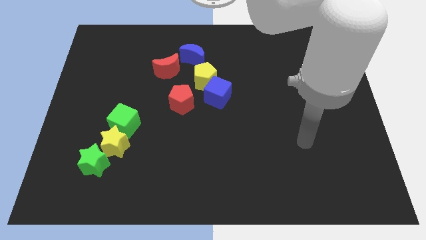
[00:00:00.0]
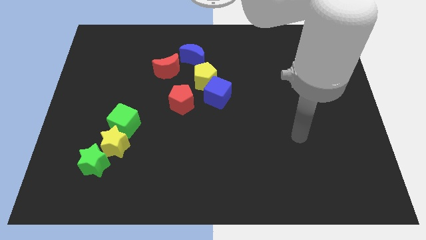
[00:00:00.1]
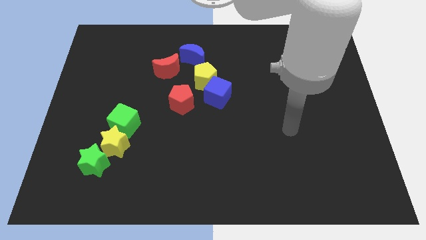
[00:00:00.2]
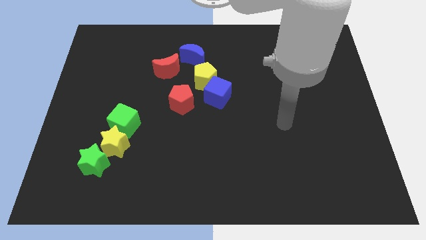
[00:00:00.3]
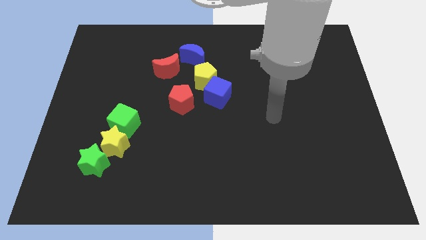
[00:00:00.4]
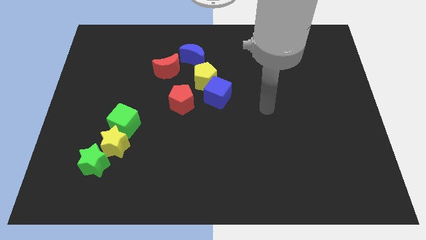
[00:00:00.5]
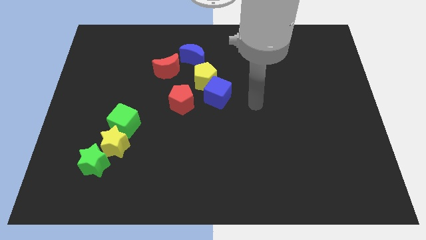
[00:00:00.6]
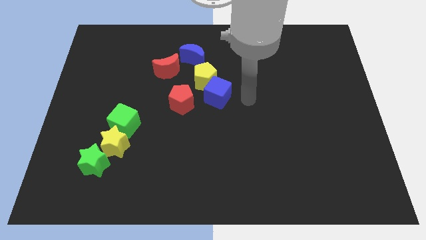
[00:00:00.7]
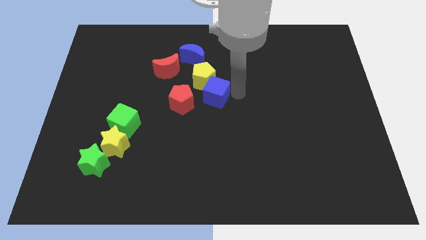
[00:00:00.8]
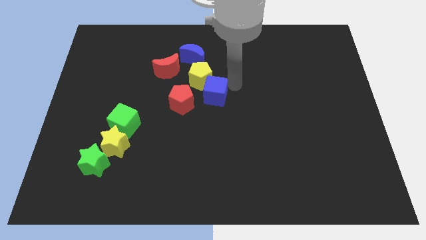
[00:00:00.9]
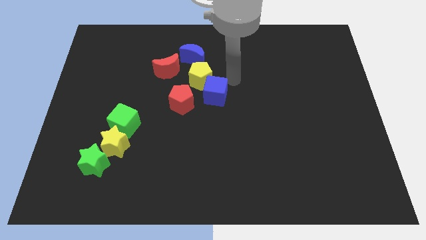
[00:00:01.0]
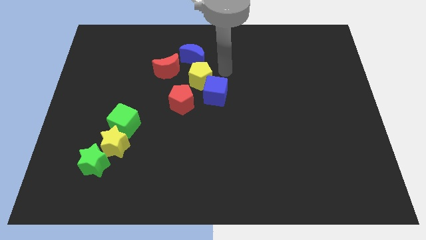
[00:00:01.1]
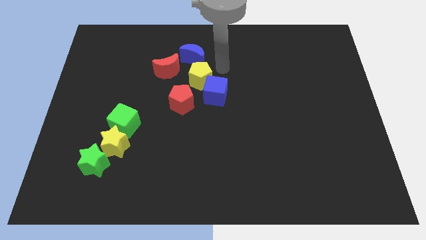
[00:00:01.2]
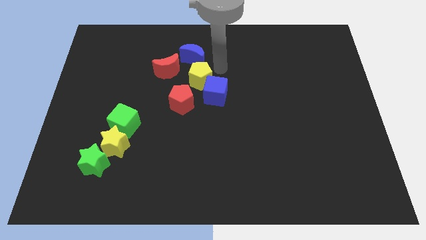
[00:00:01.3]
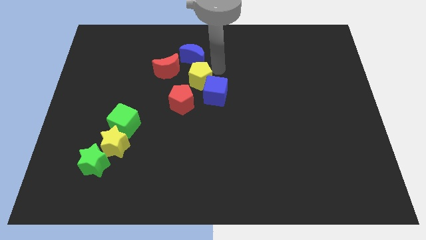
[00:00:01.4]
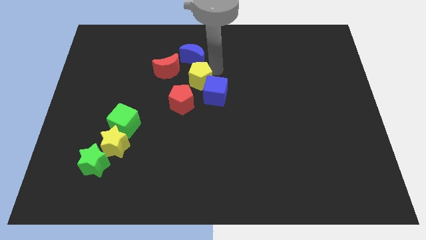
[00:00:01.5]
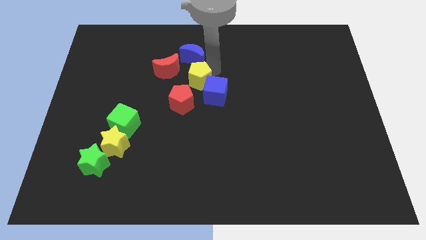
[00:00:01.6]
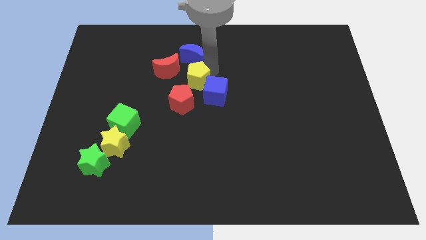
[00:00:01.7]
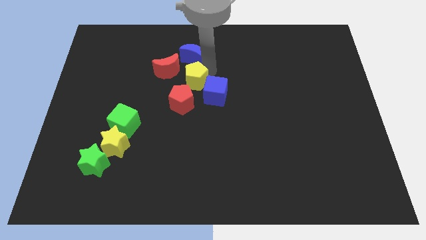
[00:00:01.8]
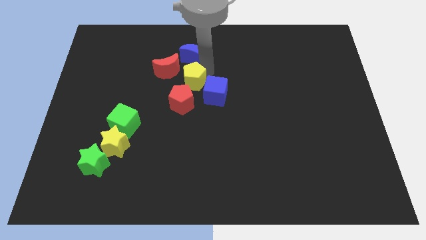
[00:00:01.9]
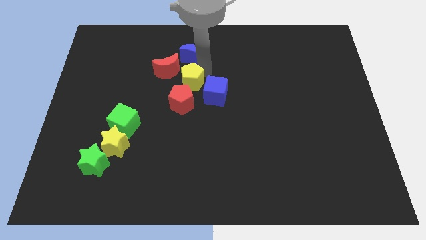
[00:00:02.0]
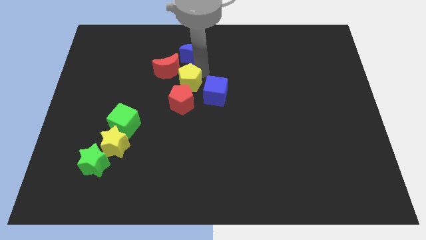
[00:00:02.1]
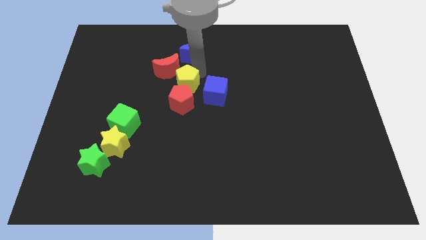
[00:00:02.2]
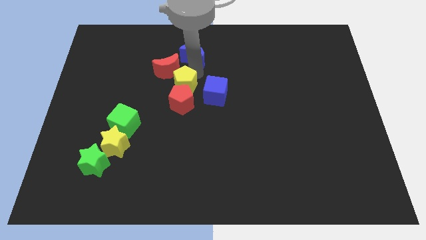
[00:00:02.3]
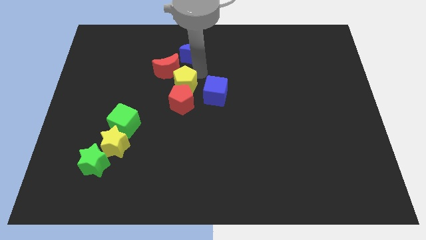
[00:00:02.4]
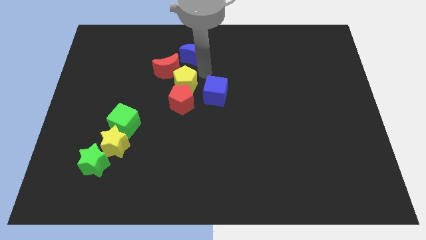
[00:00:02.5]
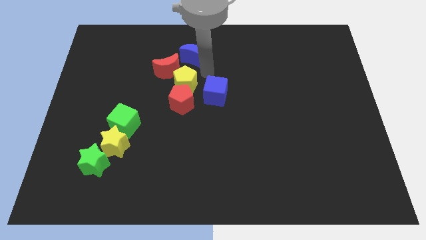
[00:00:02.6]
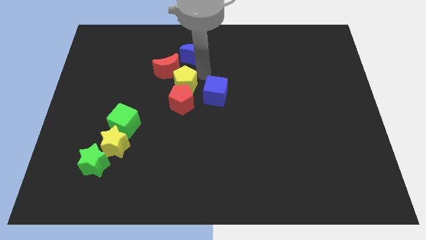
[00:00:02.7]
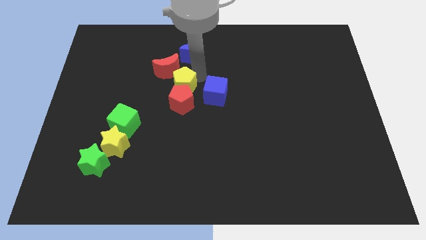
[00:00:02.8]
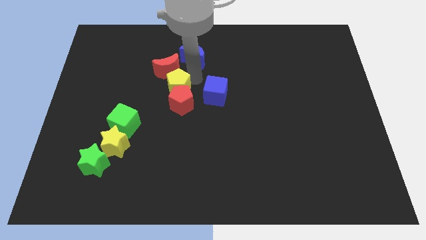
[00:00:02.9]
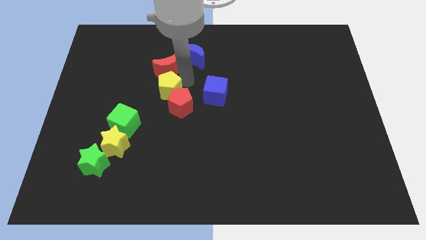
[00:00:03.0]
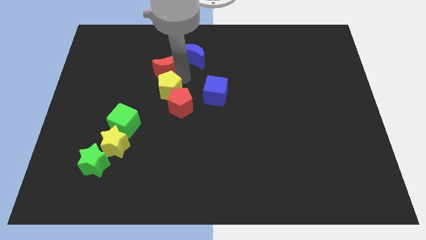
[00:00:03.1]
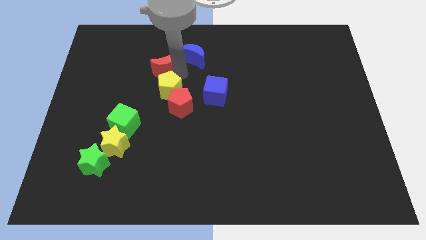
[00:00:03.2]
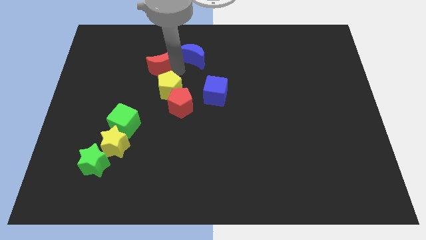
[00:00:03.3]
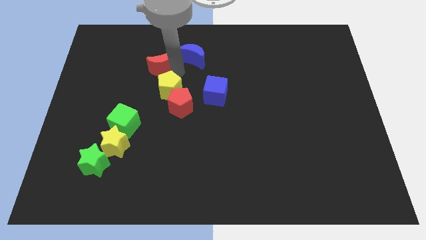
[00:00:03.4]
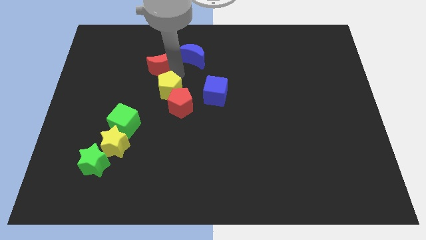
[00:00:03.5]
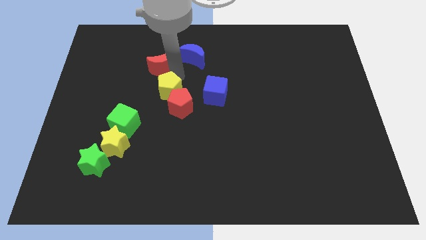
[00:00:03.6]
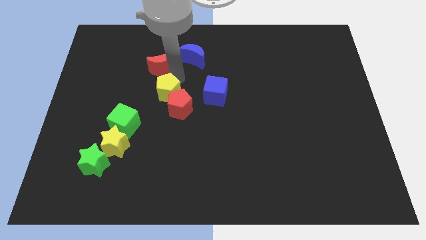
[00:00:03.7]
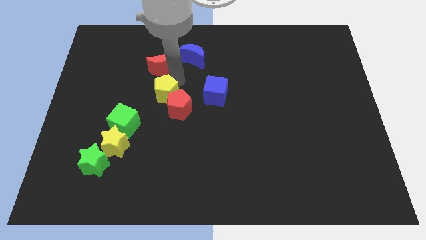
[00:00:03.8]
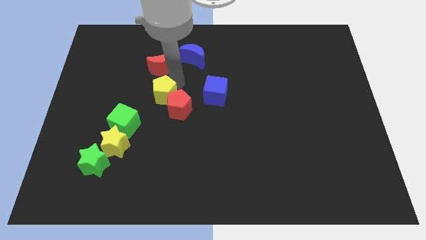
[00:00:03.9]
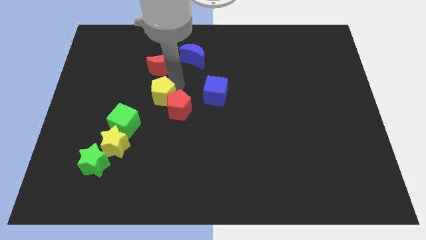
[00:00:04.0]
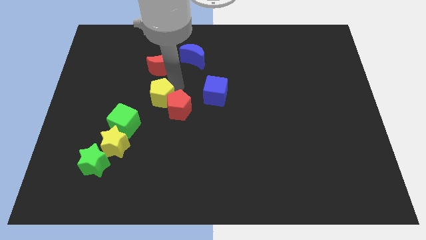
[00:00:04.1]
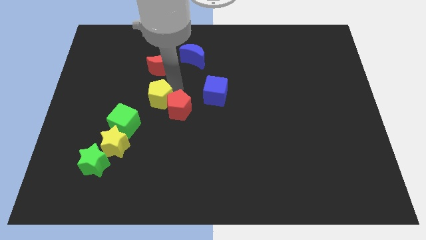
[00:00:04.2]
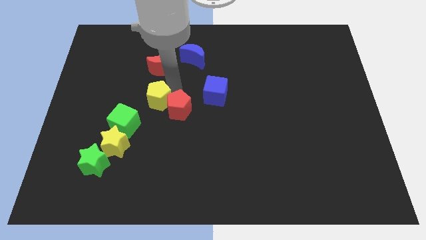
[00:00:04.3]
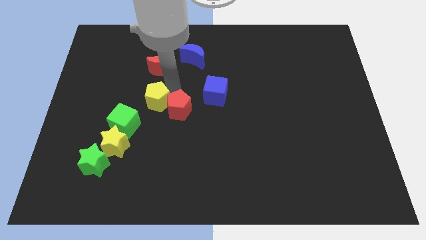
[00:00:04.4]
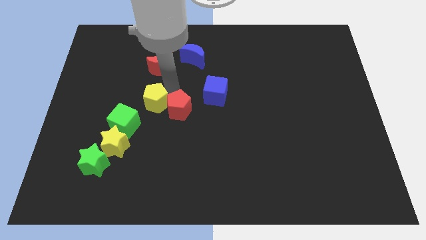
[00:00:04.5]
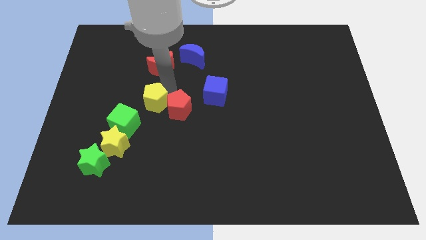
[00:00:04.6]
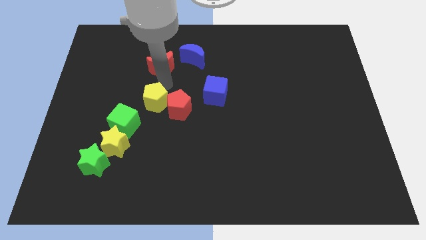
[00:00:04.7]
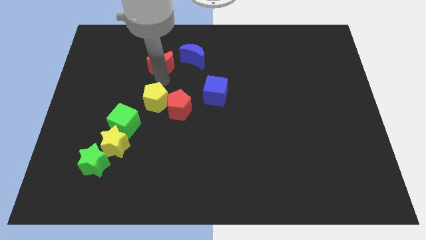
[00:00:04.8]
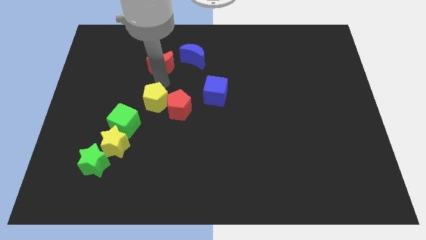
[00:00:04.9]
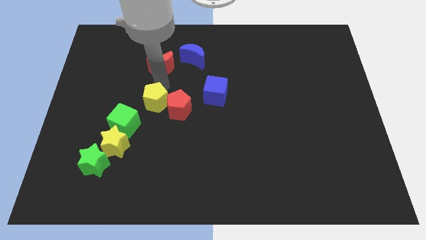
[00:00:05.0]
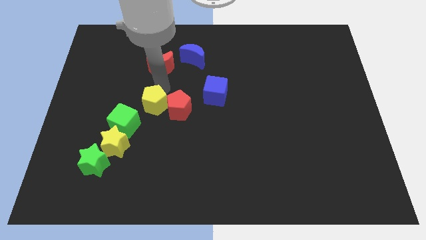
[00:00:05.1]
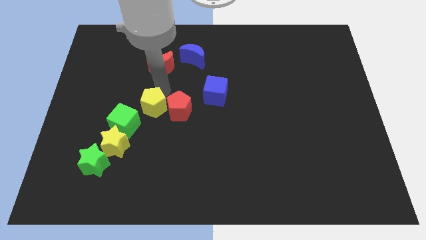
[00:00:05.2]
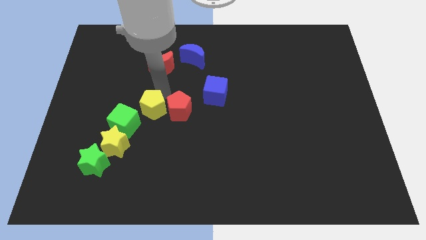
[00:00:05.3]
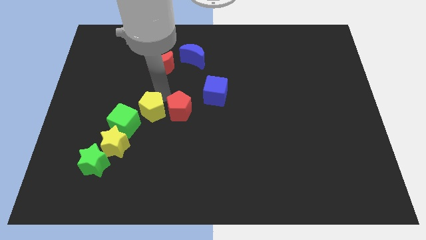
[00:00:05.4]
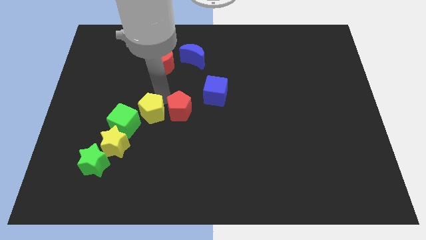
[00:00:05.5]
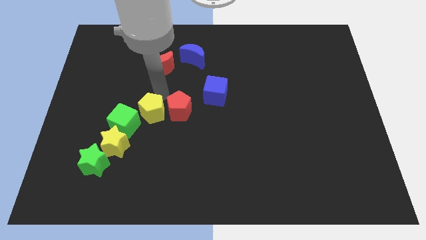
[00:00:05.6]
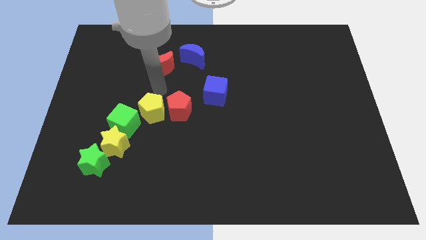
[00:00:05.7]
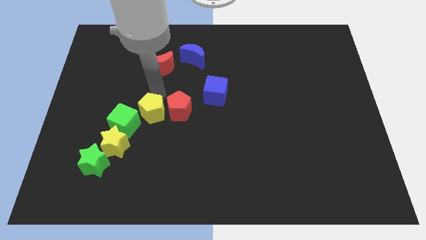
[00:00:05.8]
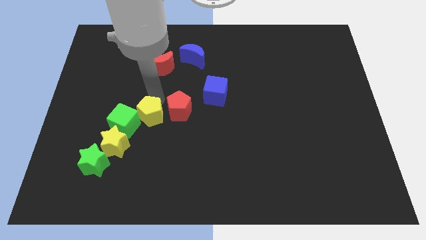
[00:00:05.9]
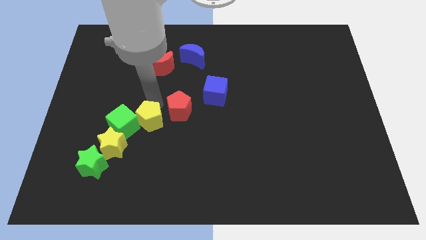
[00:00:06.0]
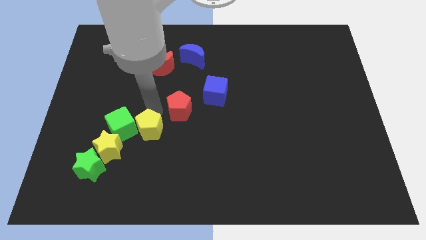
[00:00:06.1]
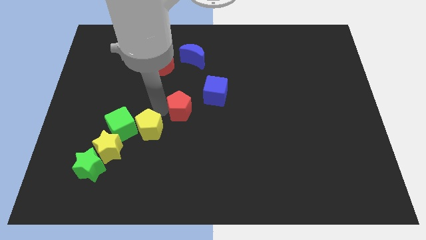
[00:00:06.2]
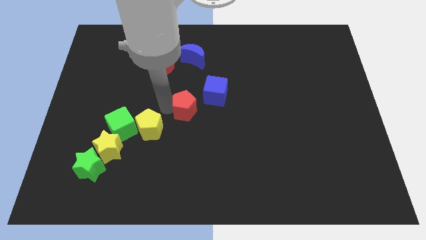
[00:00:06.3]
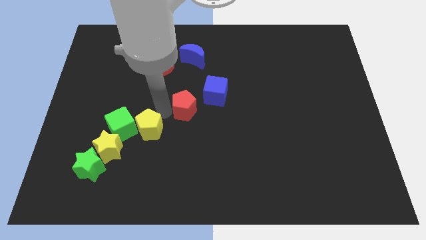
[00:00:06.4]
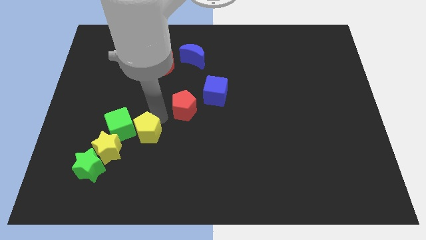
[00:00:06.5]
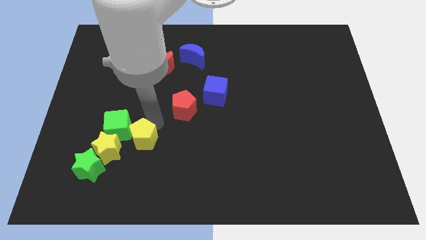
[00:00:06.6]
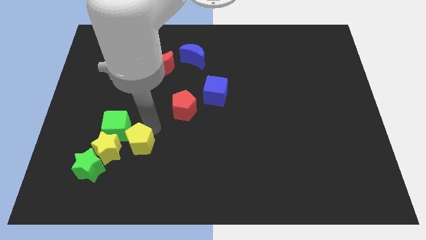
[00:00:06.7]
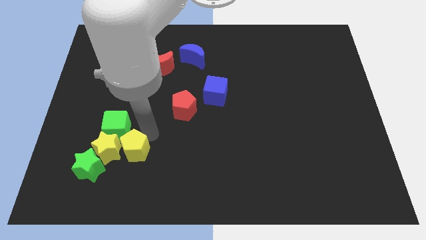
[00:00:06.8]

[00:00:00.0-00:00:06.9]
move the yellow pentagon to the yellow star

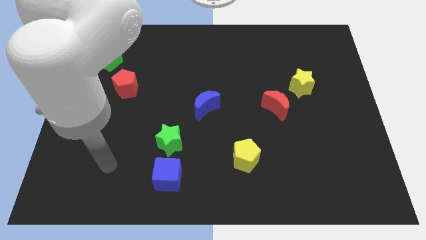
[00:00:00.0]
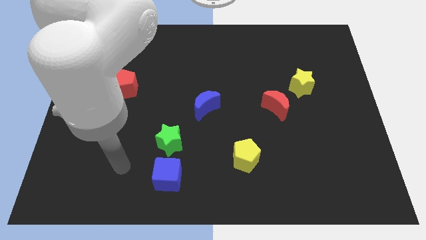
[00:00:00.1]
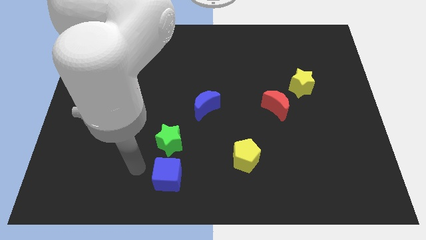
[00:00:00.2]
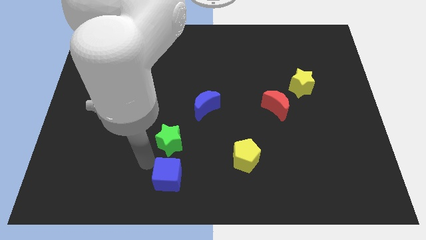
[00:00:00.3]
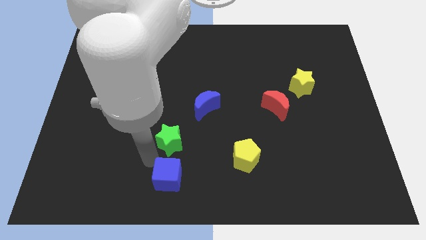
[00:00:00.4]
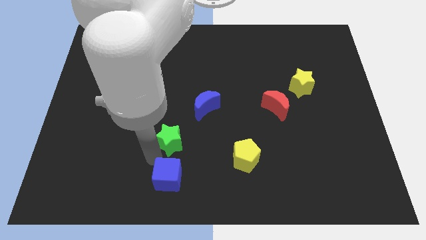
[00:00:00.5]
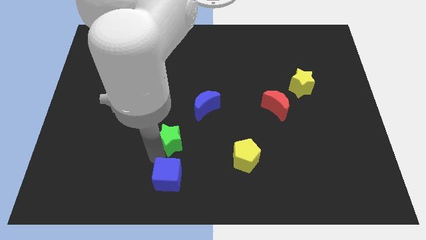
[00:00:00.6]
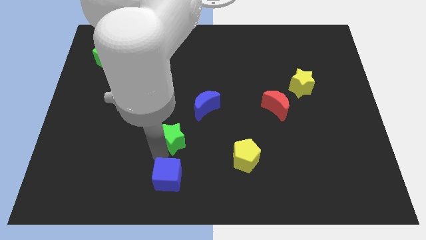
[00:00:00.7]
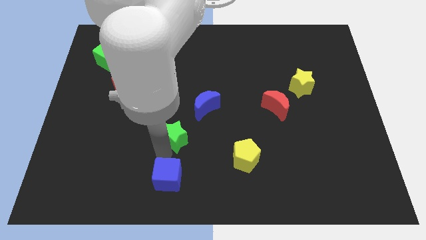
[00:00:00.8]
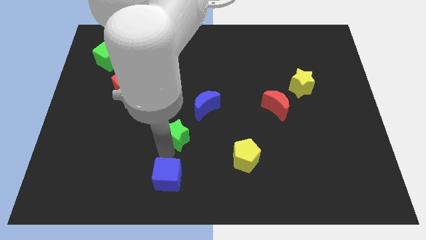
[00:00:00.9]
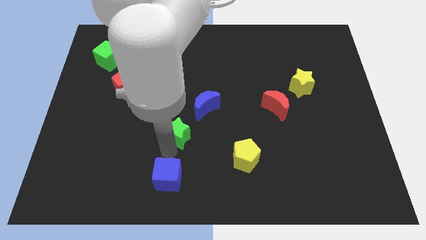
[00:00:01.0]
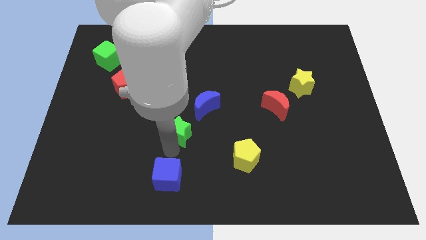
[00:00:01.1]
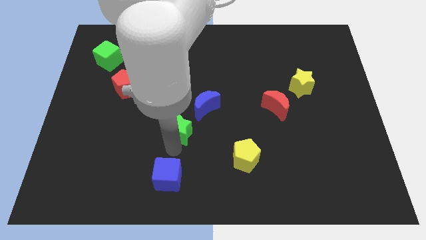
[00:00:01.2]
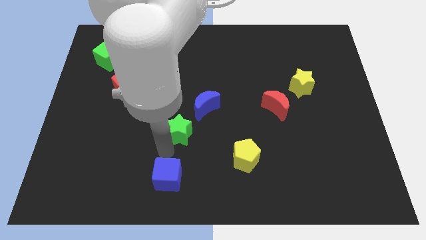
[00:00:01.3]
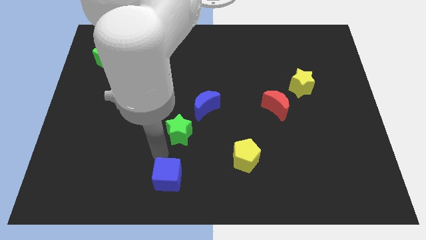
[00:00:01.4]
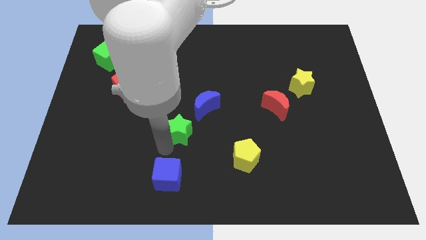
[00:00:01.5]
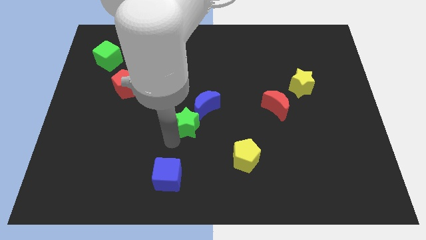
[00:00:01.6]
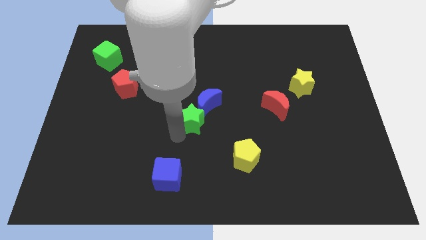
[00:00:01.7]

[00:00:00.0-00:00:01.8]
move the green star towards the blue moon
